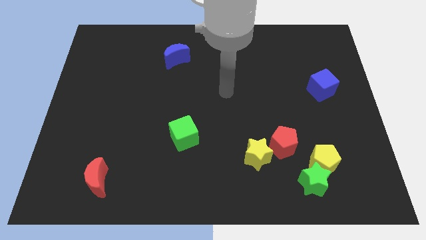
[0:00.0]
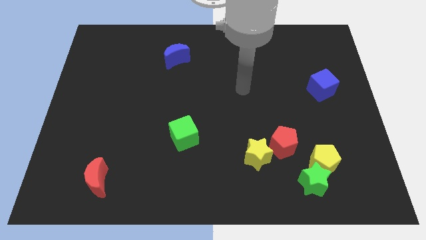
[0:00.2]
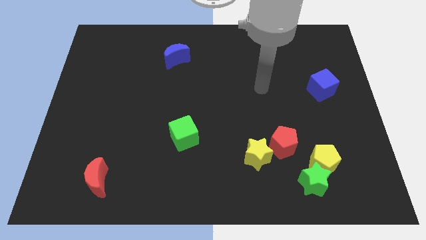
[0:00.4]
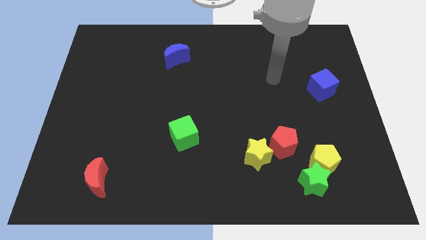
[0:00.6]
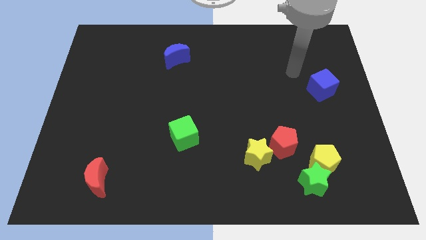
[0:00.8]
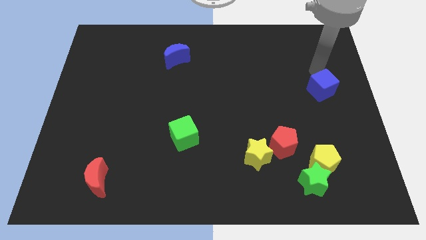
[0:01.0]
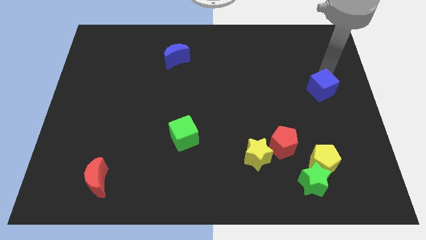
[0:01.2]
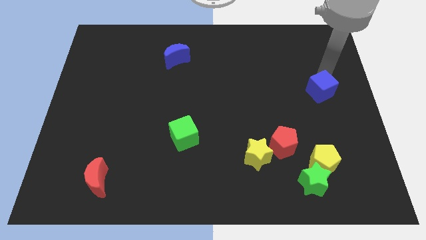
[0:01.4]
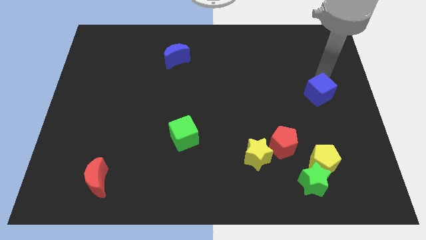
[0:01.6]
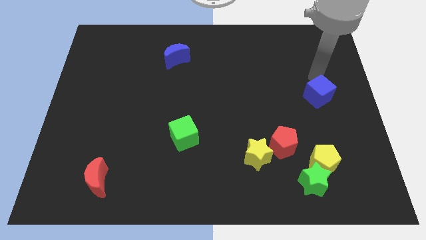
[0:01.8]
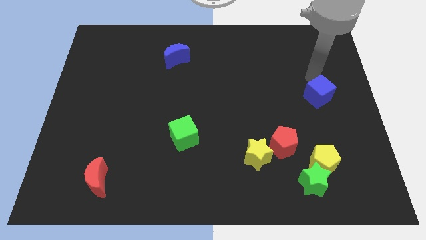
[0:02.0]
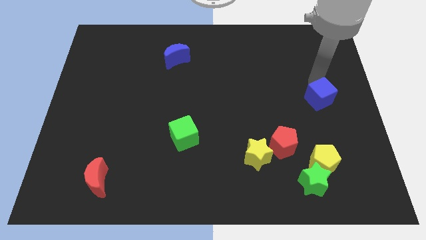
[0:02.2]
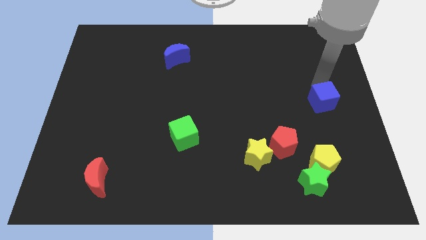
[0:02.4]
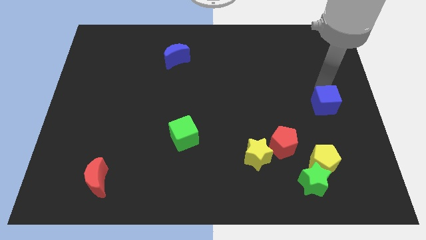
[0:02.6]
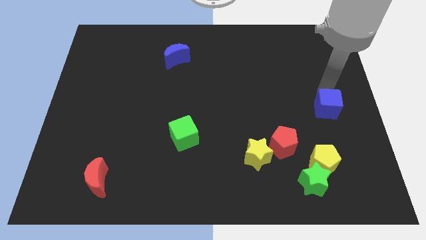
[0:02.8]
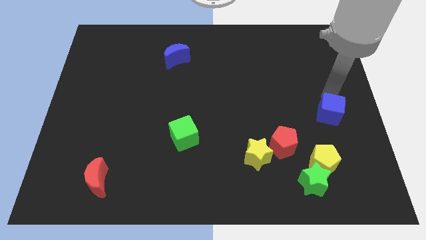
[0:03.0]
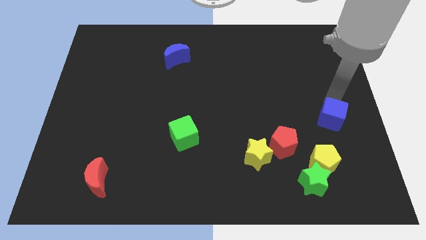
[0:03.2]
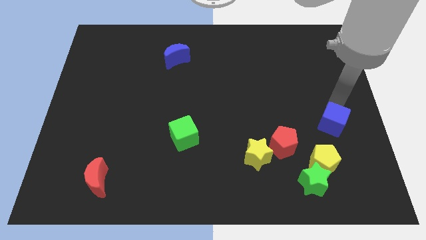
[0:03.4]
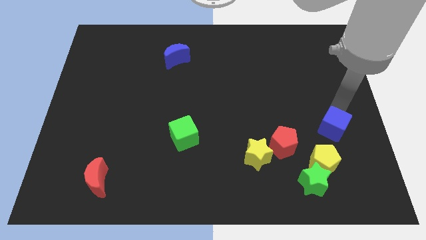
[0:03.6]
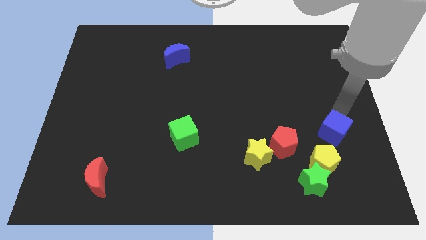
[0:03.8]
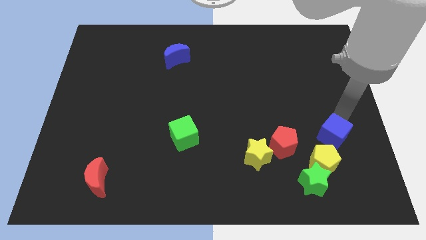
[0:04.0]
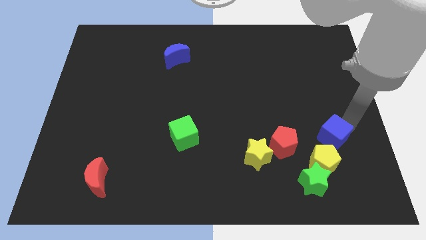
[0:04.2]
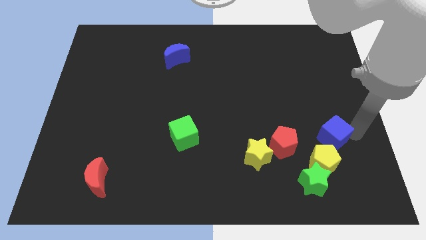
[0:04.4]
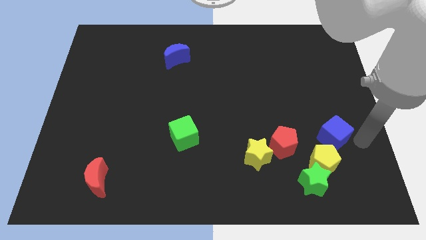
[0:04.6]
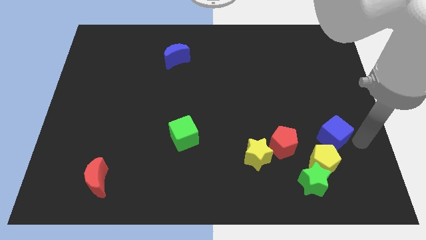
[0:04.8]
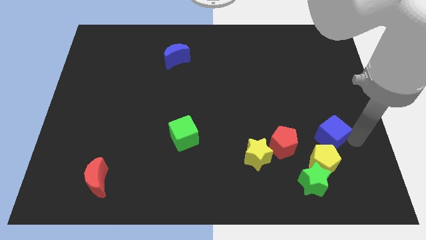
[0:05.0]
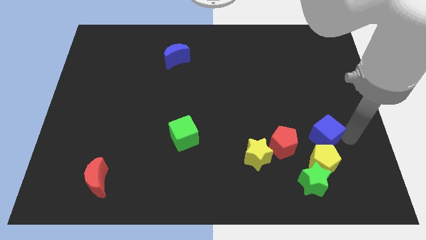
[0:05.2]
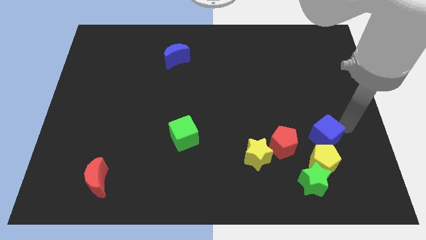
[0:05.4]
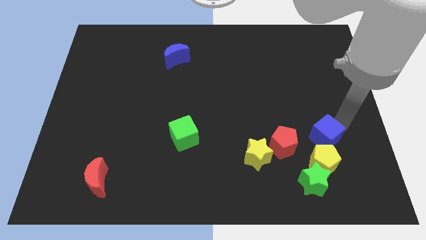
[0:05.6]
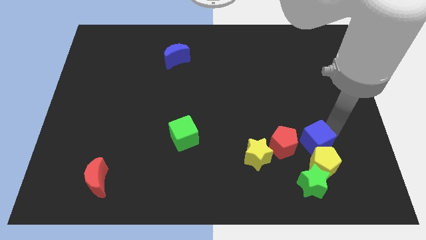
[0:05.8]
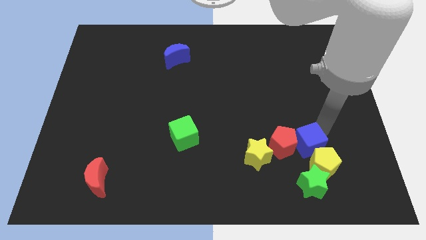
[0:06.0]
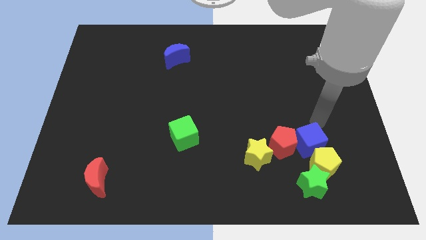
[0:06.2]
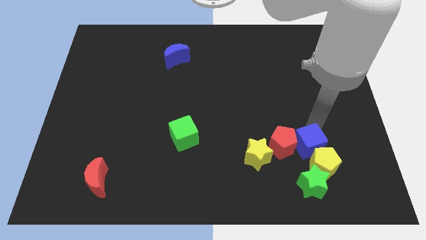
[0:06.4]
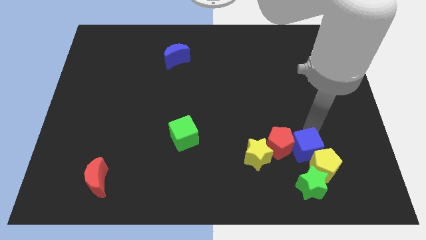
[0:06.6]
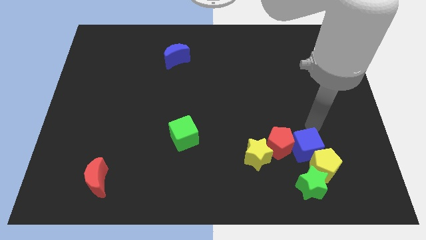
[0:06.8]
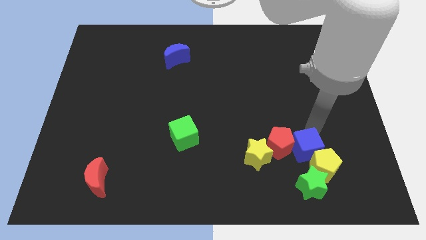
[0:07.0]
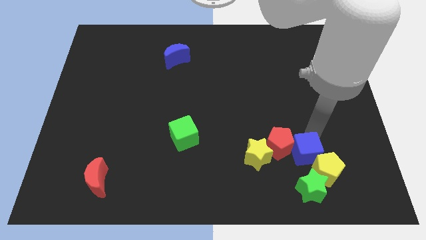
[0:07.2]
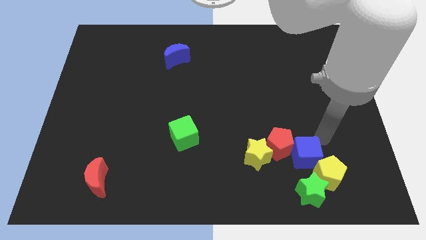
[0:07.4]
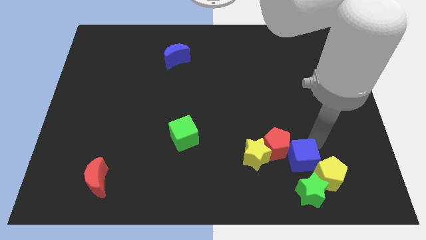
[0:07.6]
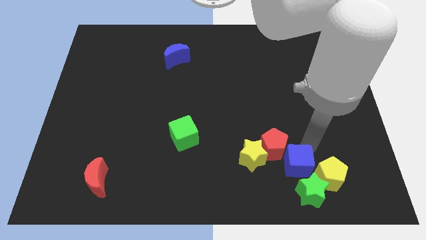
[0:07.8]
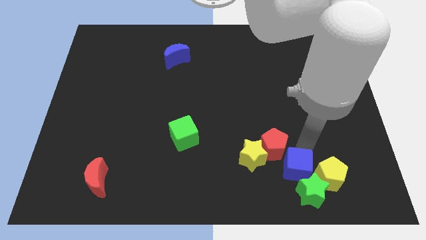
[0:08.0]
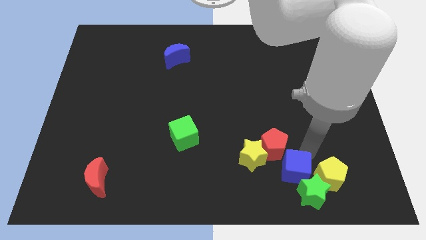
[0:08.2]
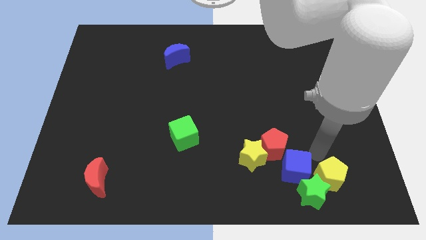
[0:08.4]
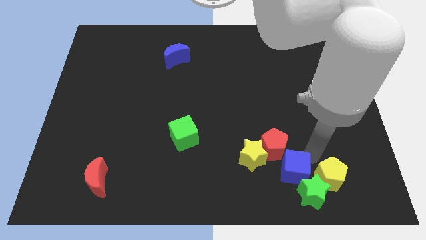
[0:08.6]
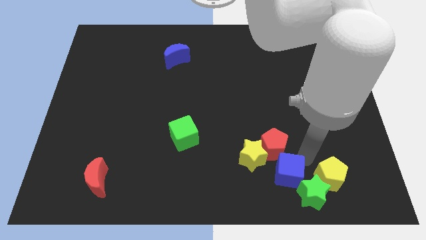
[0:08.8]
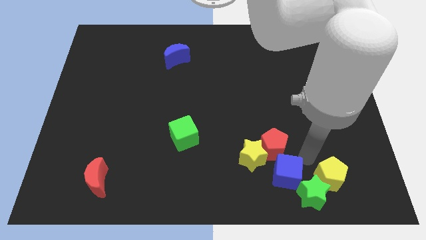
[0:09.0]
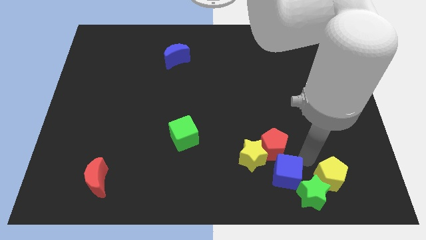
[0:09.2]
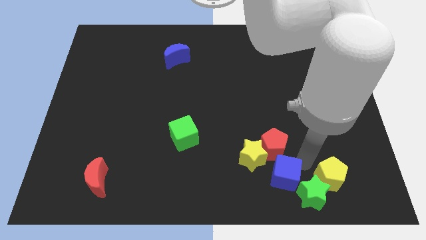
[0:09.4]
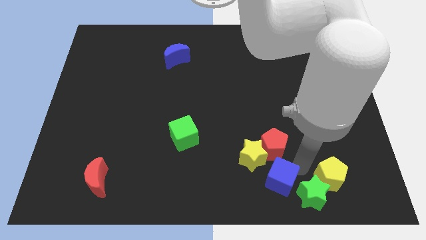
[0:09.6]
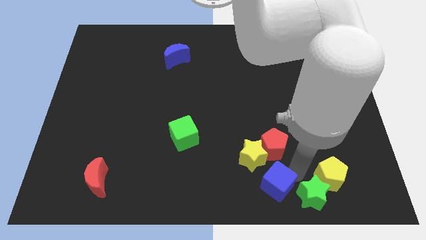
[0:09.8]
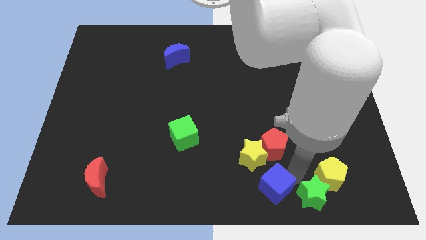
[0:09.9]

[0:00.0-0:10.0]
move the blue cube to the bottom side

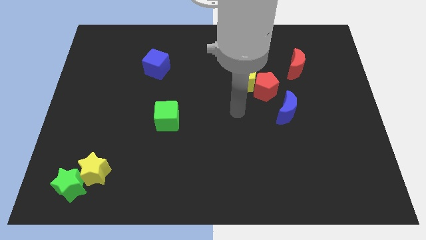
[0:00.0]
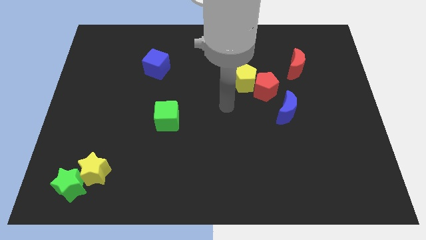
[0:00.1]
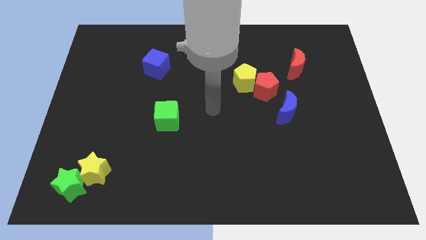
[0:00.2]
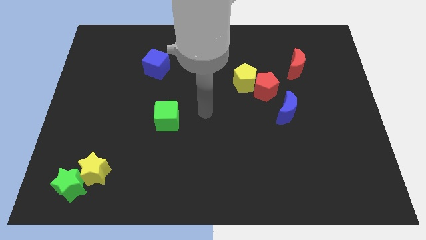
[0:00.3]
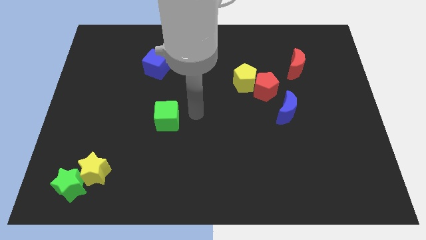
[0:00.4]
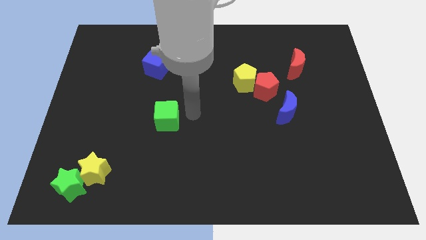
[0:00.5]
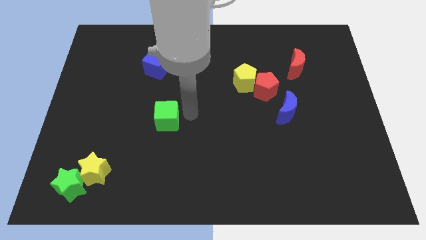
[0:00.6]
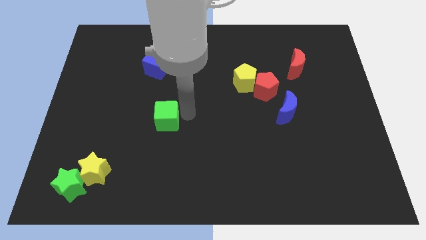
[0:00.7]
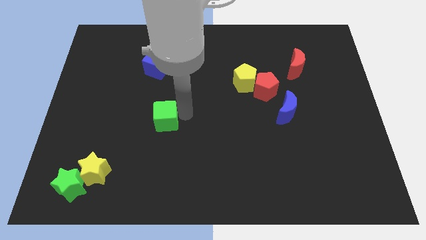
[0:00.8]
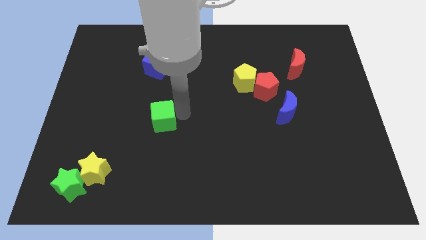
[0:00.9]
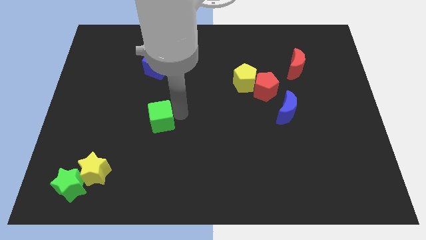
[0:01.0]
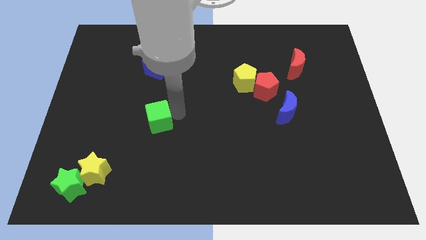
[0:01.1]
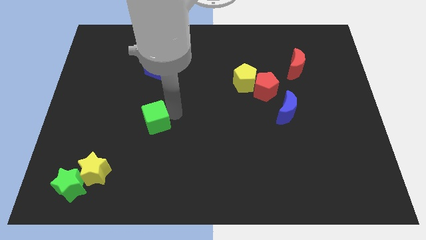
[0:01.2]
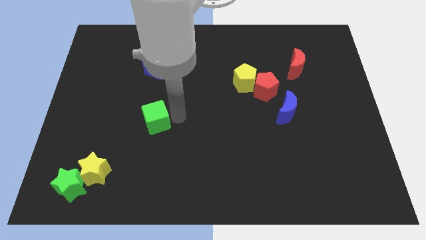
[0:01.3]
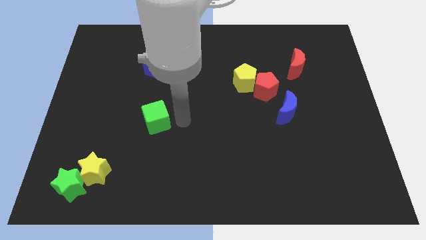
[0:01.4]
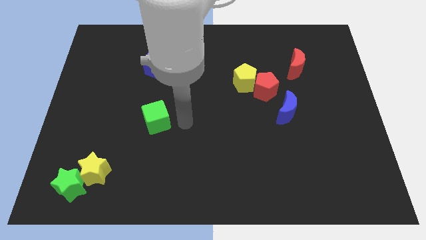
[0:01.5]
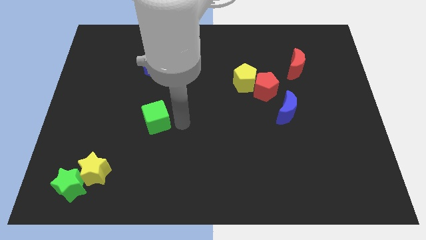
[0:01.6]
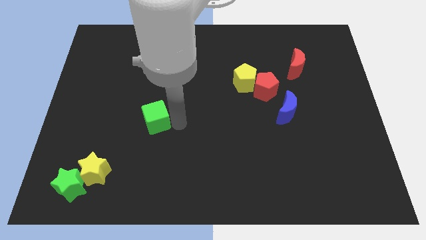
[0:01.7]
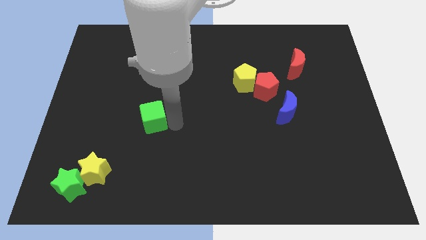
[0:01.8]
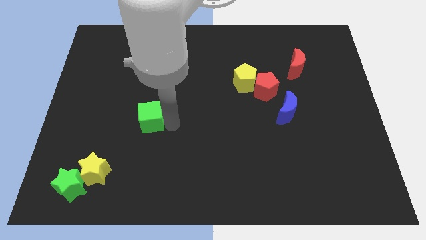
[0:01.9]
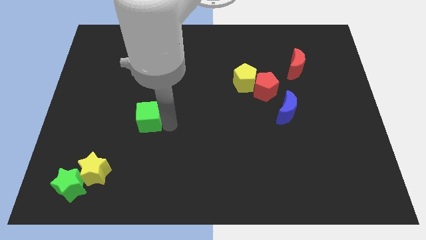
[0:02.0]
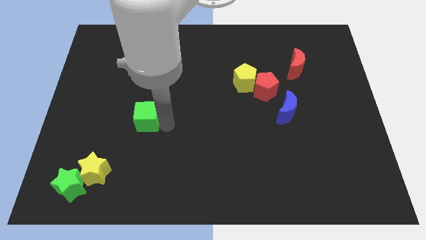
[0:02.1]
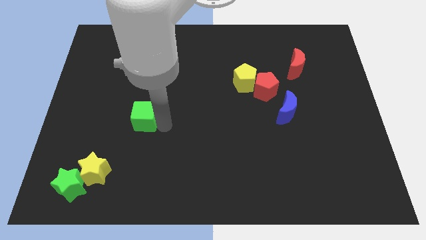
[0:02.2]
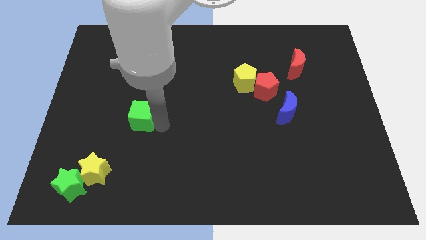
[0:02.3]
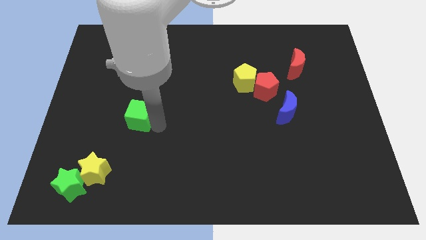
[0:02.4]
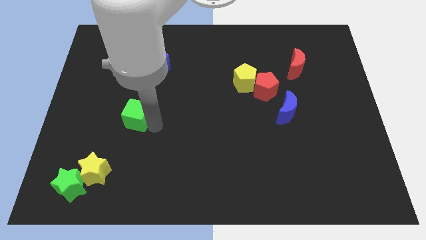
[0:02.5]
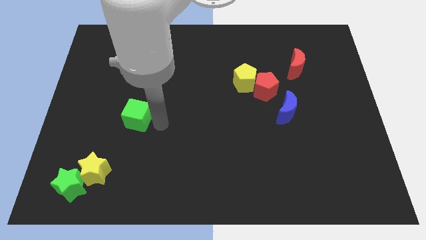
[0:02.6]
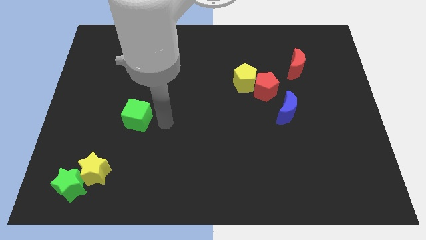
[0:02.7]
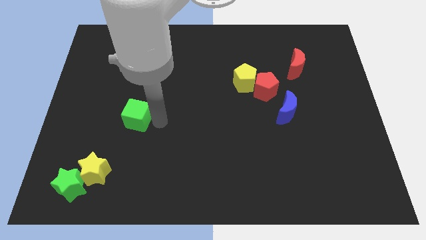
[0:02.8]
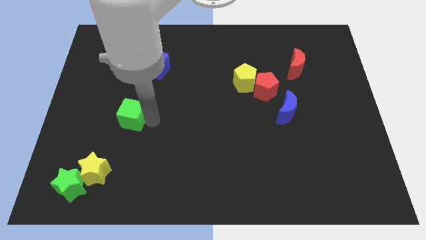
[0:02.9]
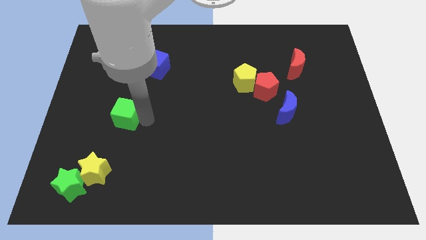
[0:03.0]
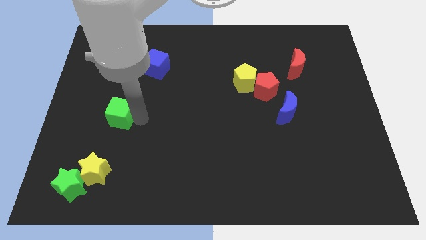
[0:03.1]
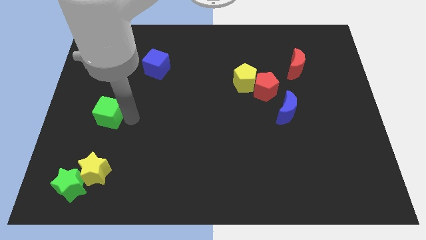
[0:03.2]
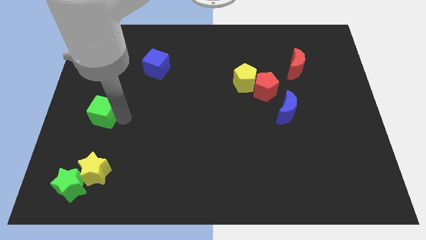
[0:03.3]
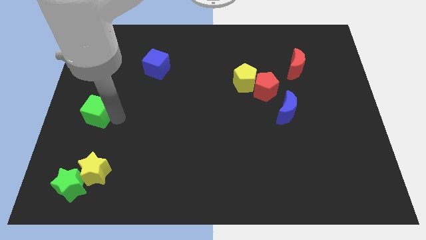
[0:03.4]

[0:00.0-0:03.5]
push the green cube to the left side
